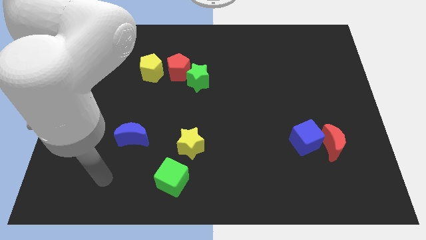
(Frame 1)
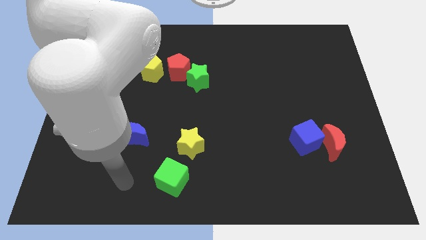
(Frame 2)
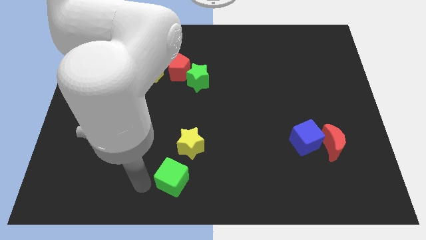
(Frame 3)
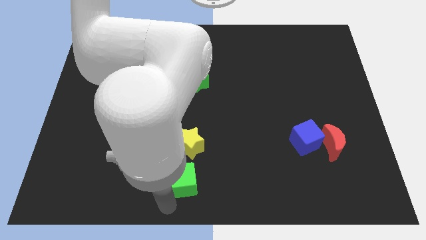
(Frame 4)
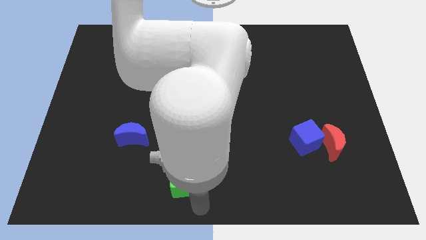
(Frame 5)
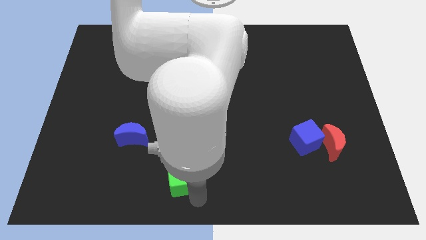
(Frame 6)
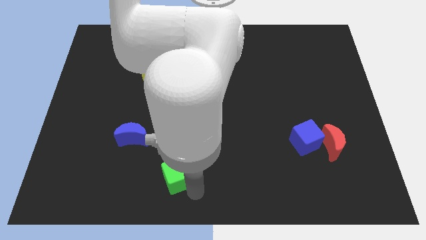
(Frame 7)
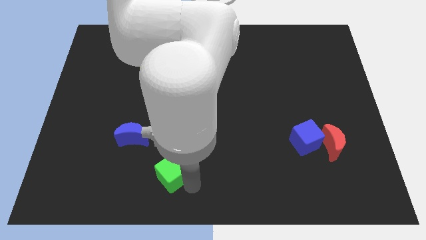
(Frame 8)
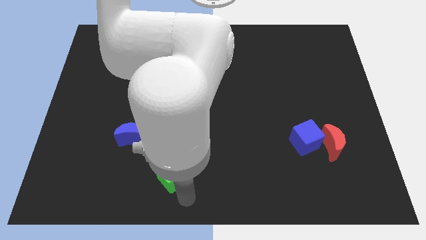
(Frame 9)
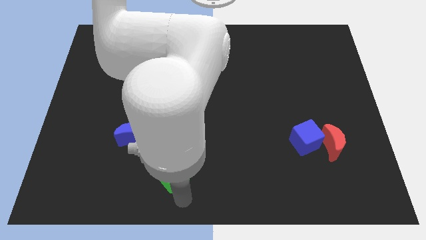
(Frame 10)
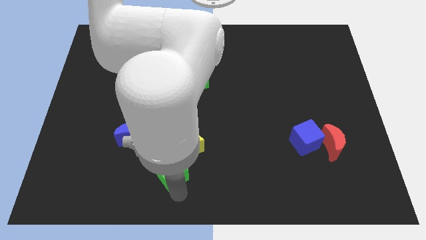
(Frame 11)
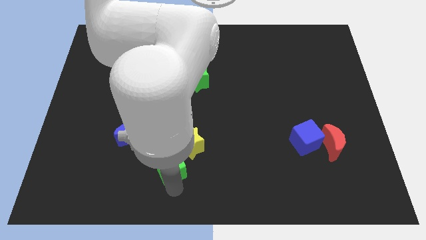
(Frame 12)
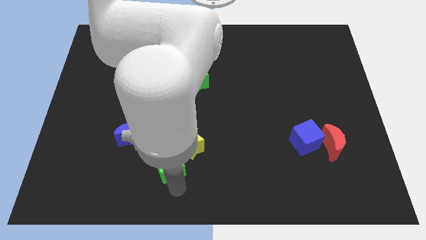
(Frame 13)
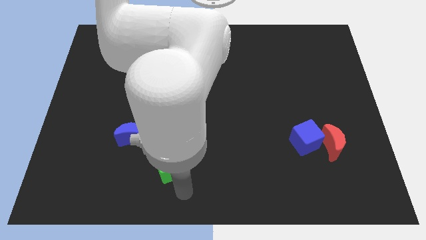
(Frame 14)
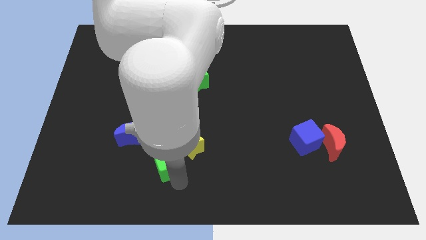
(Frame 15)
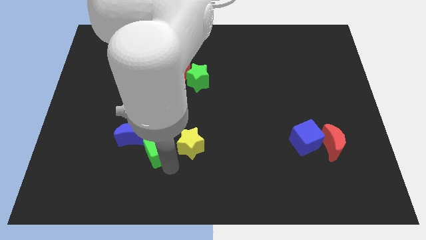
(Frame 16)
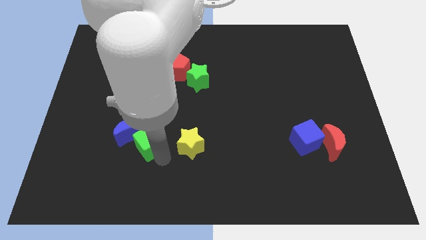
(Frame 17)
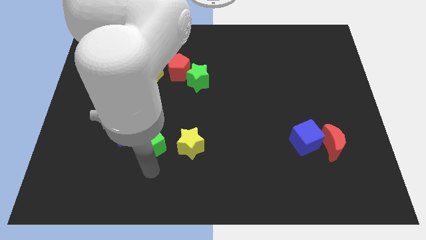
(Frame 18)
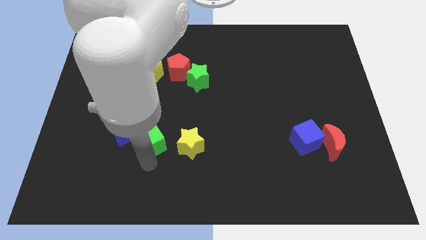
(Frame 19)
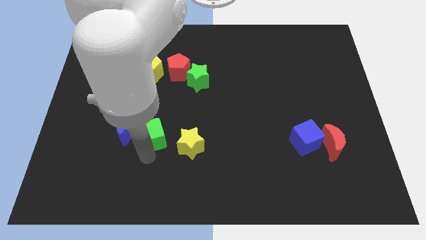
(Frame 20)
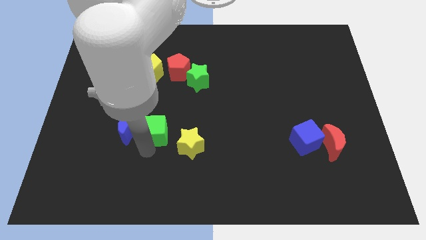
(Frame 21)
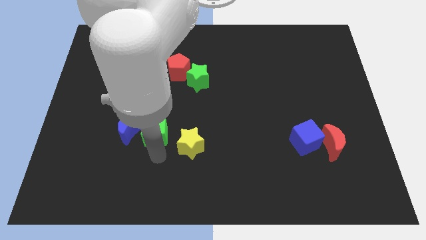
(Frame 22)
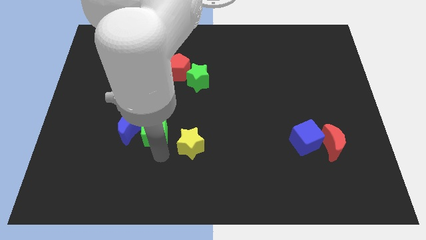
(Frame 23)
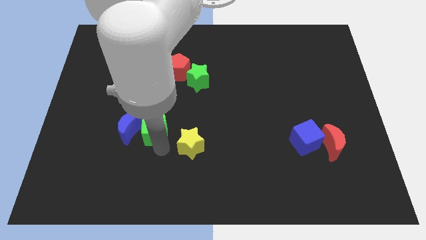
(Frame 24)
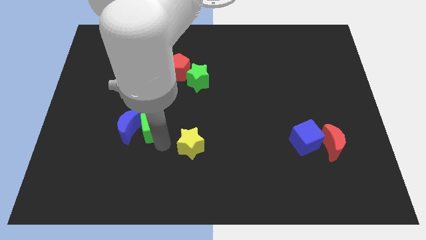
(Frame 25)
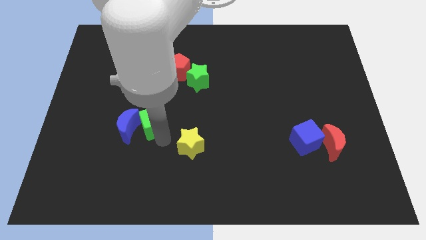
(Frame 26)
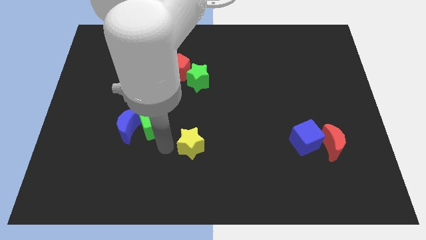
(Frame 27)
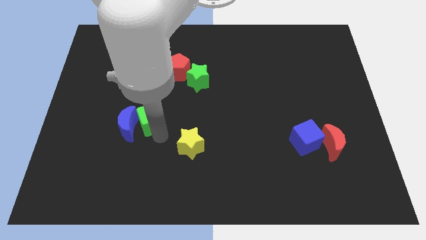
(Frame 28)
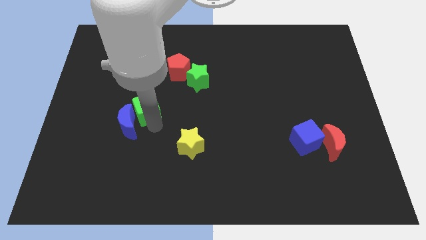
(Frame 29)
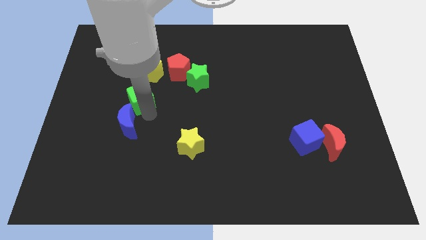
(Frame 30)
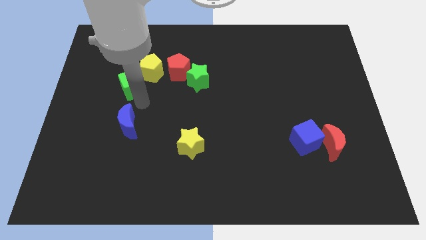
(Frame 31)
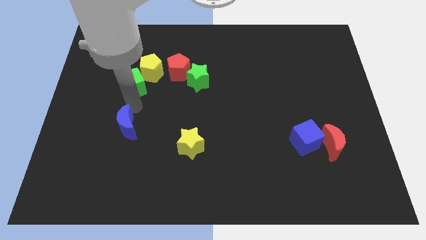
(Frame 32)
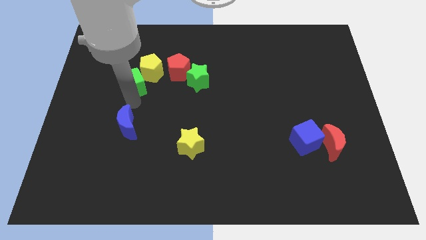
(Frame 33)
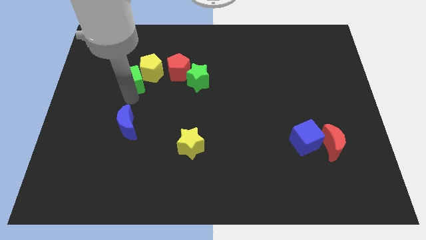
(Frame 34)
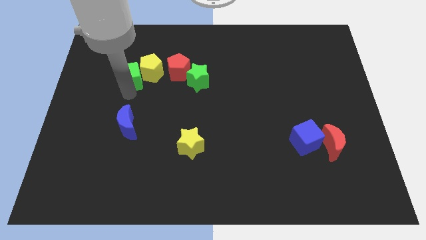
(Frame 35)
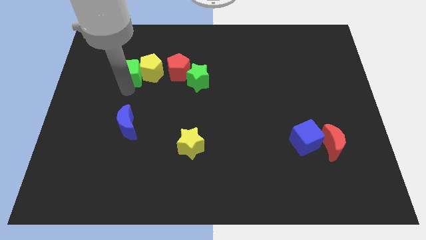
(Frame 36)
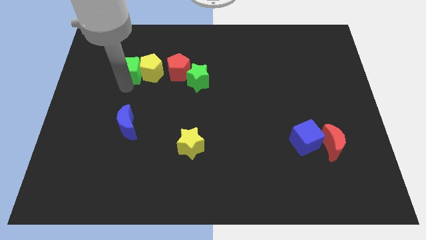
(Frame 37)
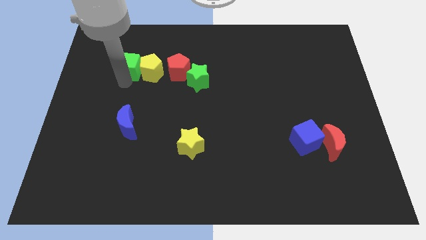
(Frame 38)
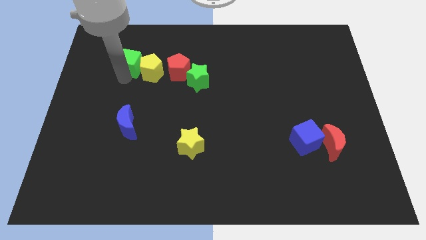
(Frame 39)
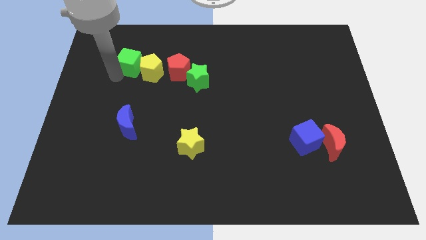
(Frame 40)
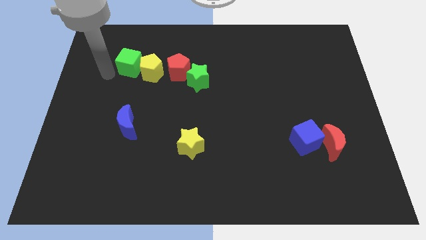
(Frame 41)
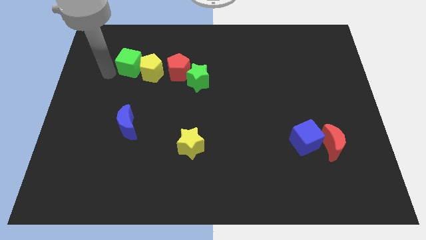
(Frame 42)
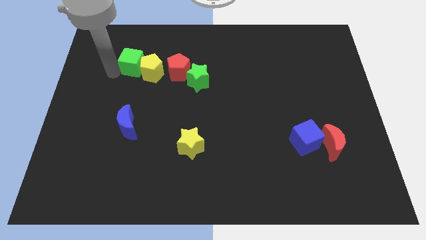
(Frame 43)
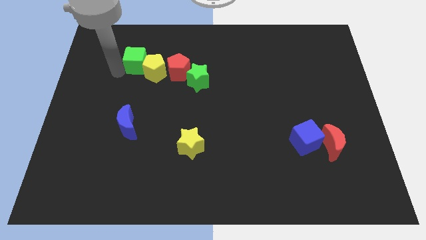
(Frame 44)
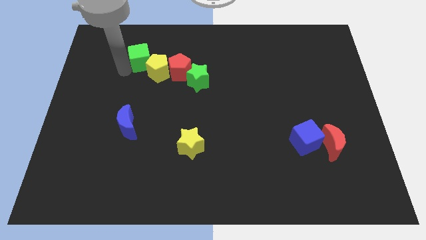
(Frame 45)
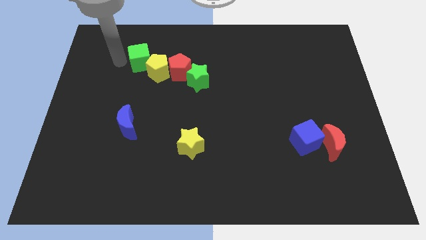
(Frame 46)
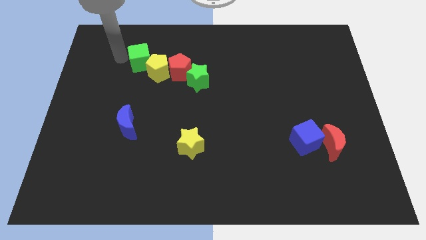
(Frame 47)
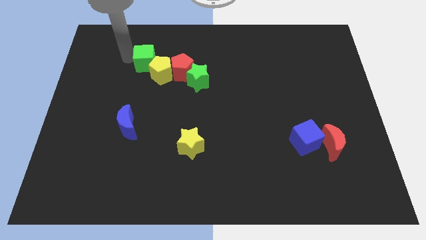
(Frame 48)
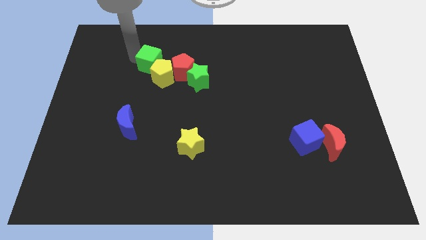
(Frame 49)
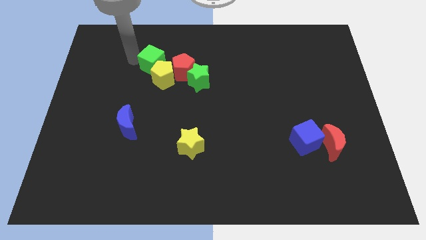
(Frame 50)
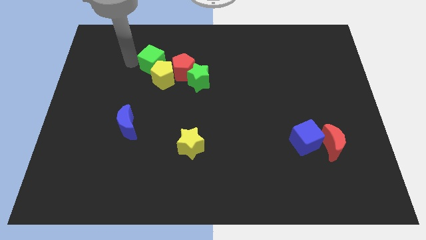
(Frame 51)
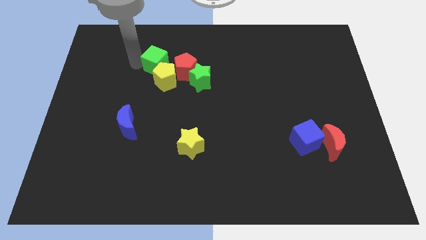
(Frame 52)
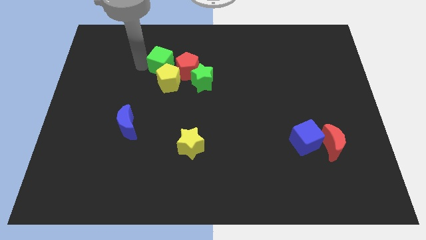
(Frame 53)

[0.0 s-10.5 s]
slide the green cube diagonally up and to the left of the green star

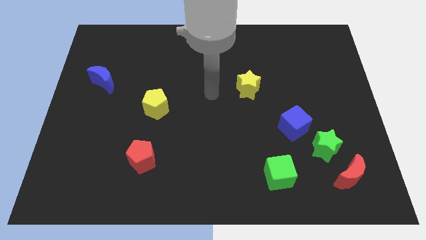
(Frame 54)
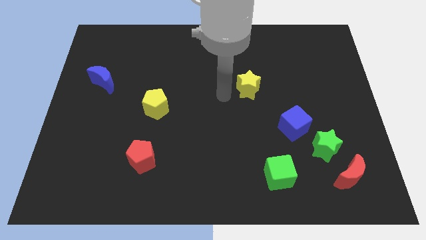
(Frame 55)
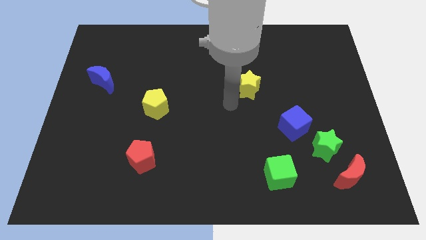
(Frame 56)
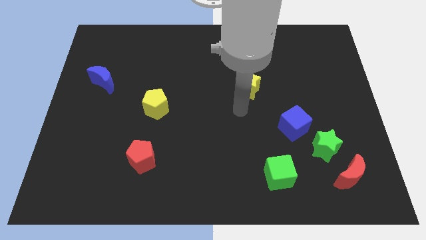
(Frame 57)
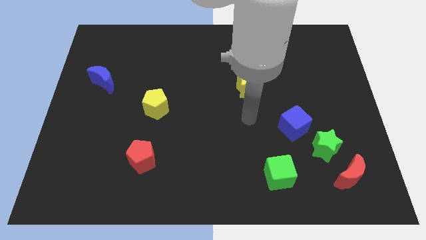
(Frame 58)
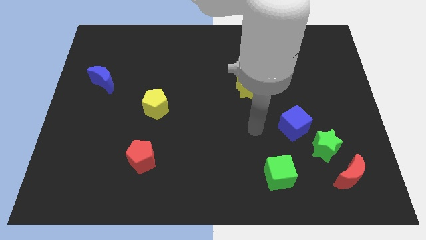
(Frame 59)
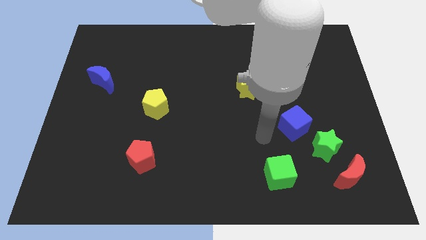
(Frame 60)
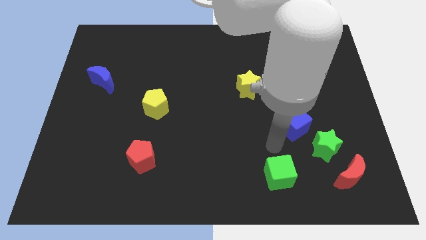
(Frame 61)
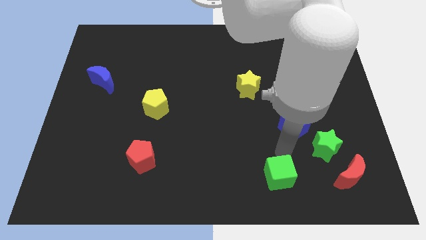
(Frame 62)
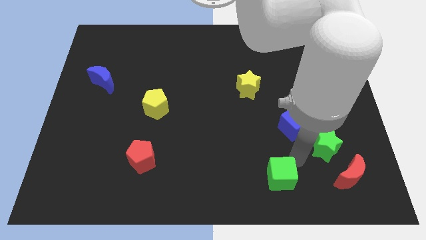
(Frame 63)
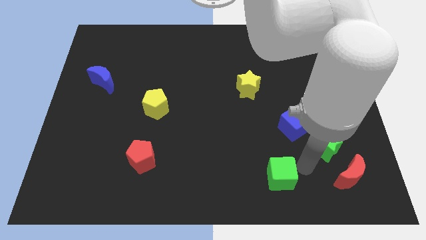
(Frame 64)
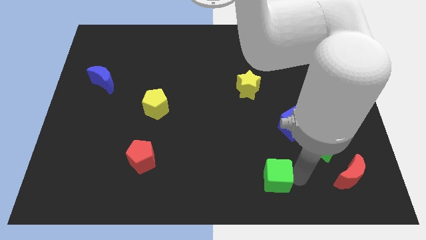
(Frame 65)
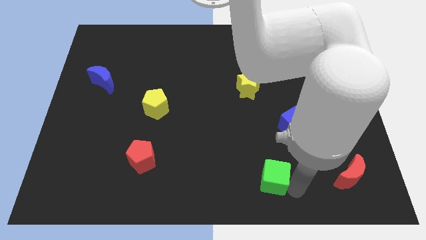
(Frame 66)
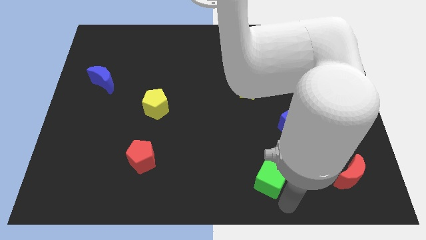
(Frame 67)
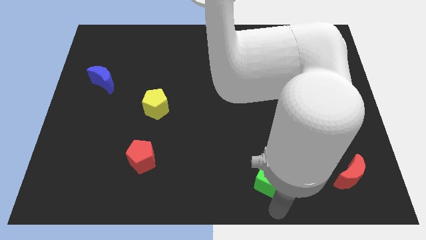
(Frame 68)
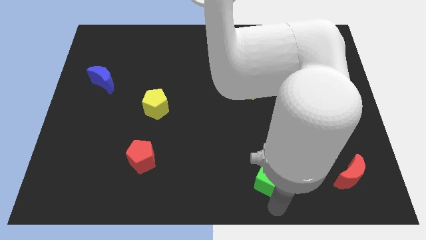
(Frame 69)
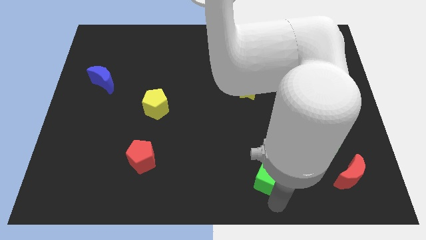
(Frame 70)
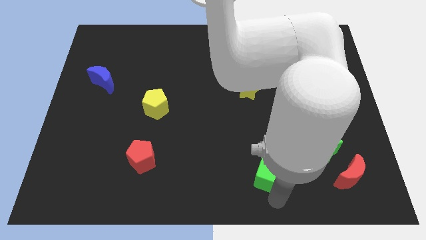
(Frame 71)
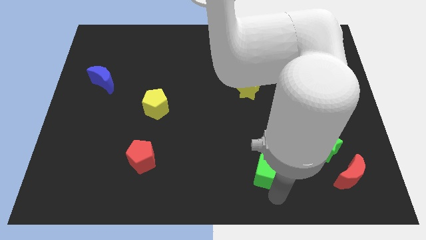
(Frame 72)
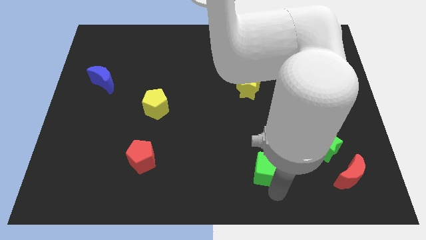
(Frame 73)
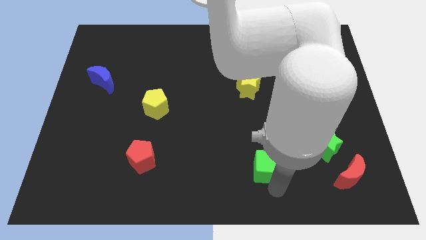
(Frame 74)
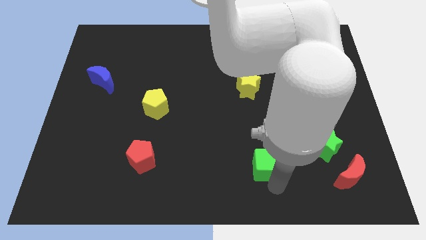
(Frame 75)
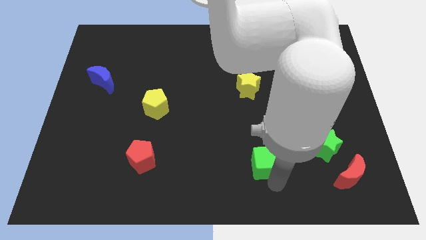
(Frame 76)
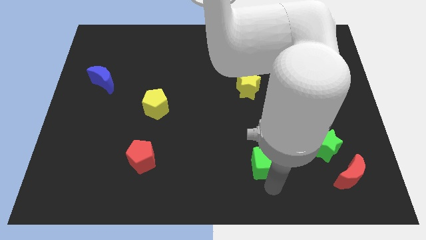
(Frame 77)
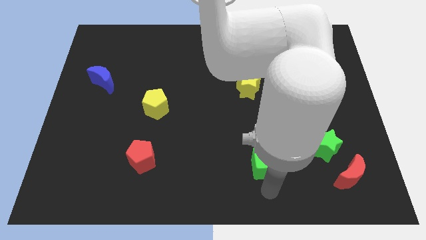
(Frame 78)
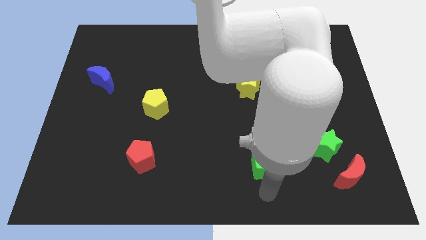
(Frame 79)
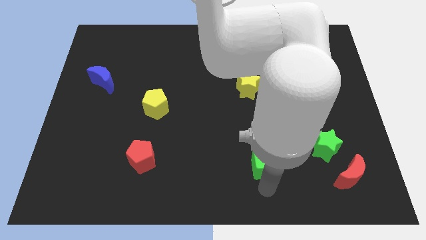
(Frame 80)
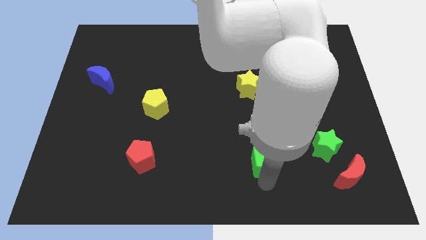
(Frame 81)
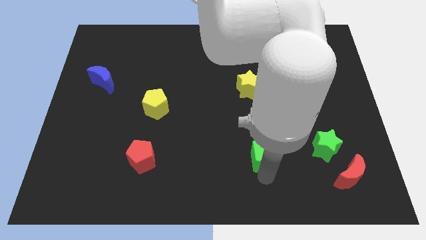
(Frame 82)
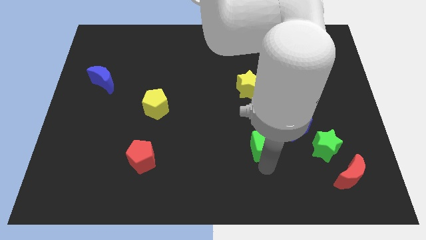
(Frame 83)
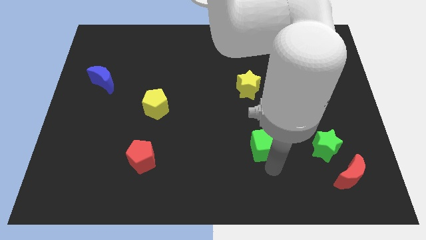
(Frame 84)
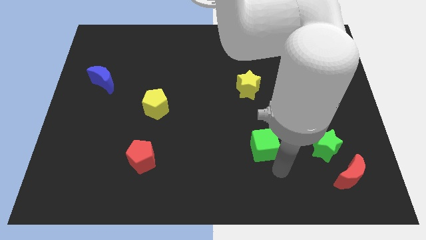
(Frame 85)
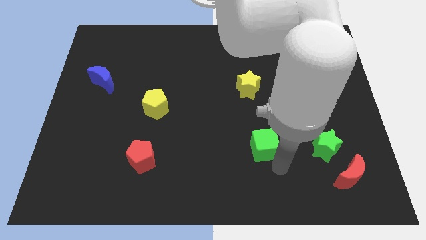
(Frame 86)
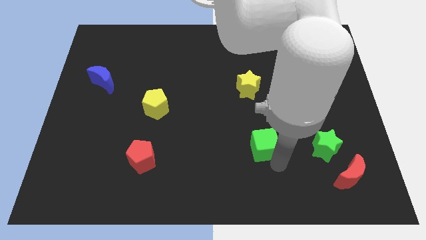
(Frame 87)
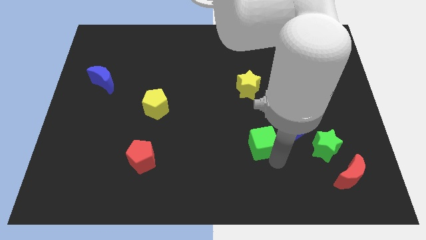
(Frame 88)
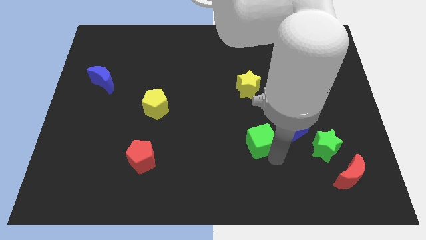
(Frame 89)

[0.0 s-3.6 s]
push the green cube to the left side of the blue cube
